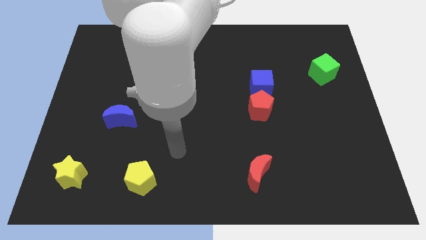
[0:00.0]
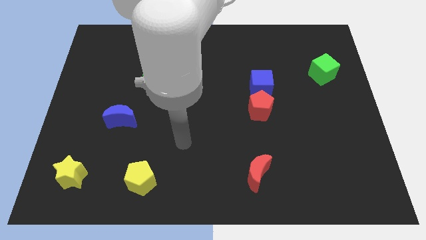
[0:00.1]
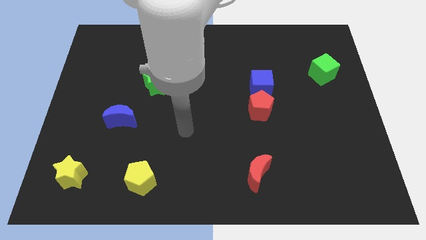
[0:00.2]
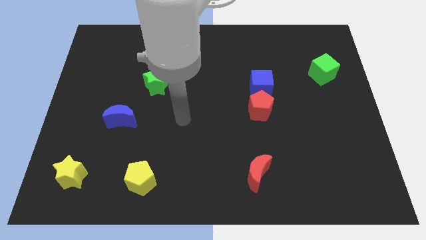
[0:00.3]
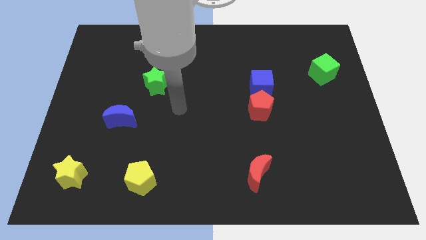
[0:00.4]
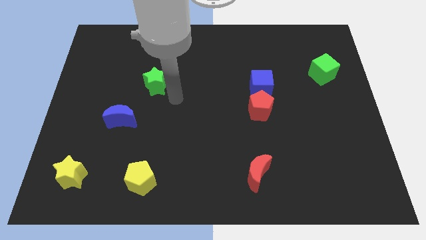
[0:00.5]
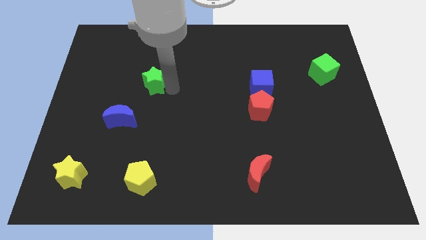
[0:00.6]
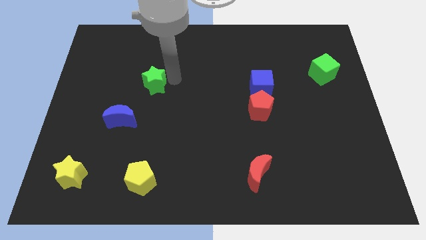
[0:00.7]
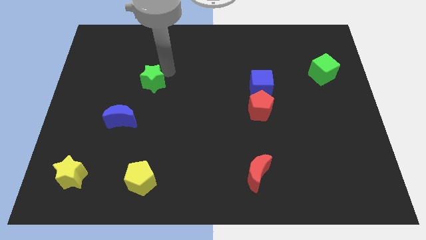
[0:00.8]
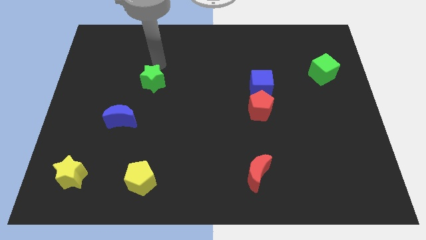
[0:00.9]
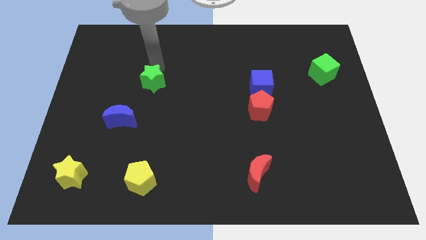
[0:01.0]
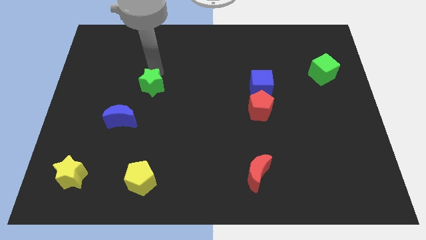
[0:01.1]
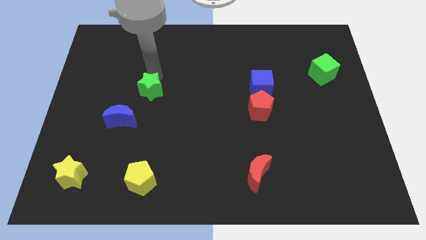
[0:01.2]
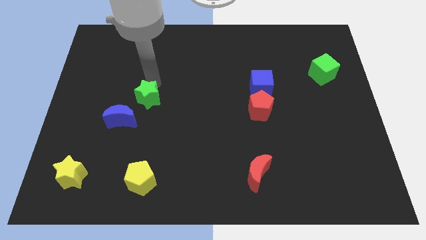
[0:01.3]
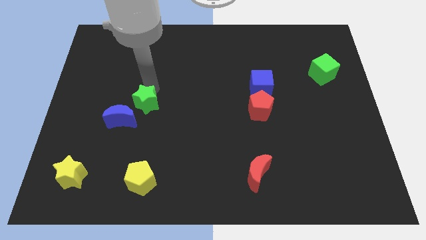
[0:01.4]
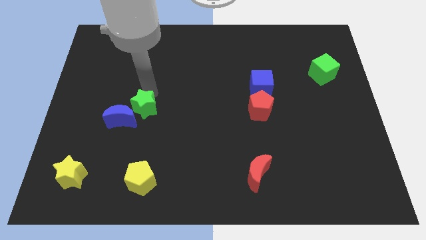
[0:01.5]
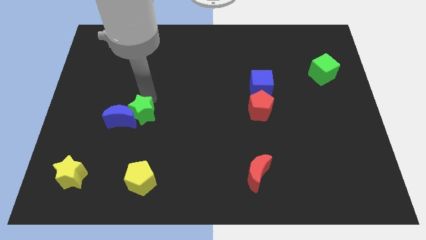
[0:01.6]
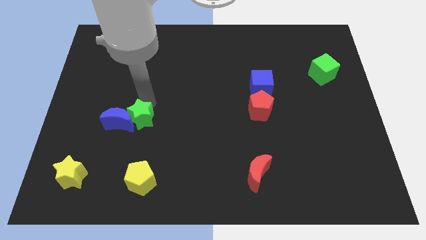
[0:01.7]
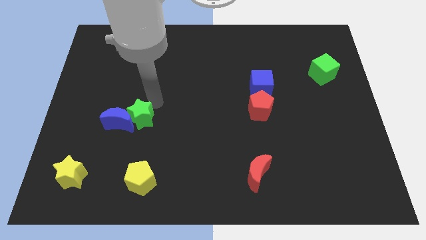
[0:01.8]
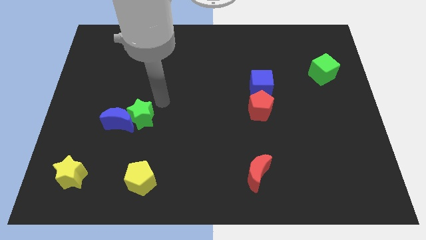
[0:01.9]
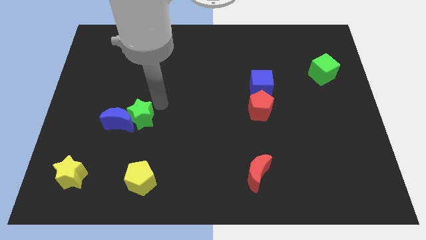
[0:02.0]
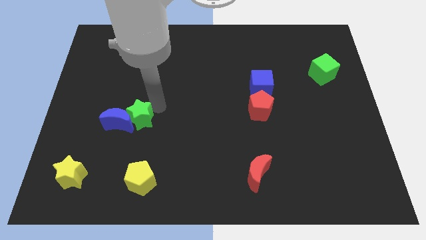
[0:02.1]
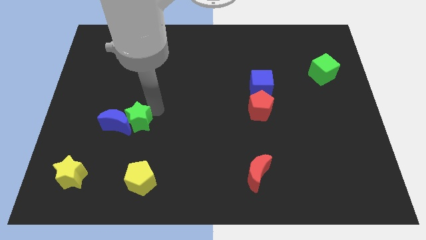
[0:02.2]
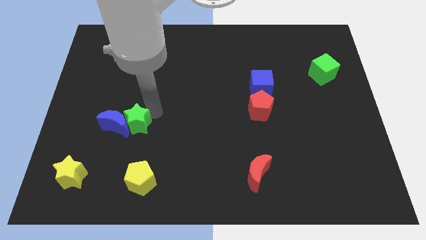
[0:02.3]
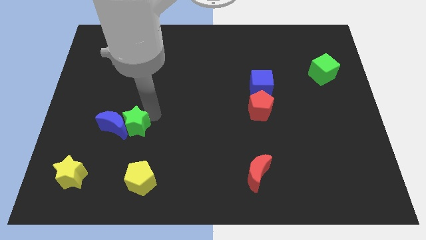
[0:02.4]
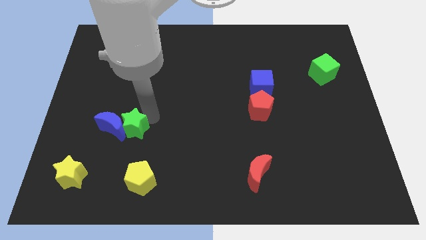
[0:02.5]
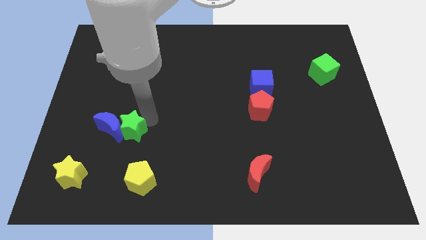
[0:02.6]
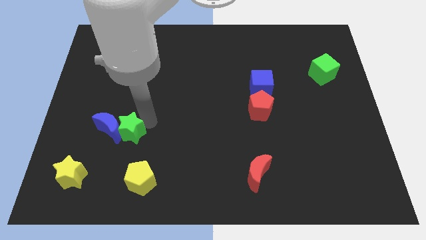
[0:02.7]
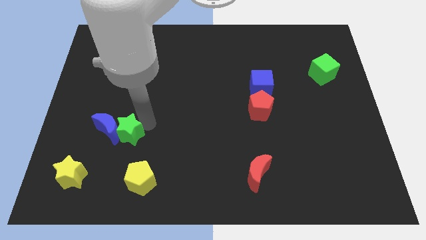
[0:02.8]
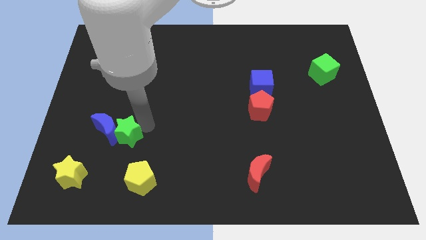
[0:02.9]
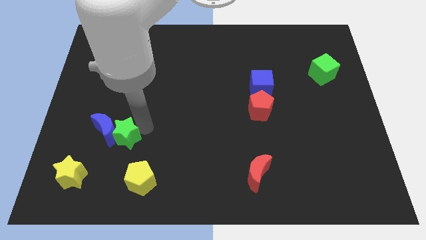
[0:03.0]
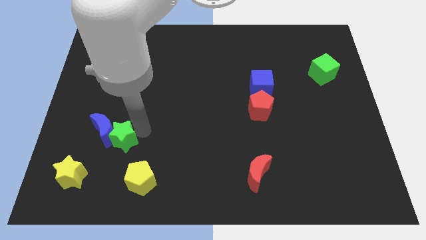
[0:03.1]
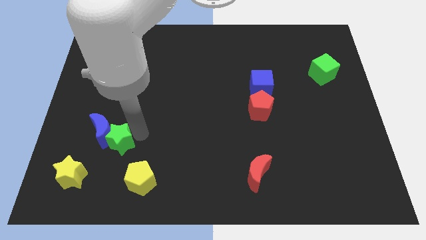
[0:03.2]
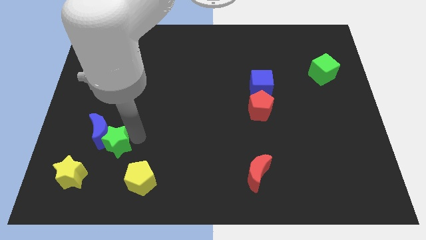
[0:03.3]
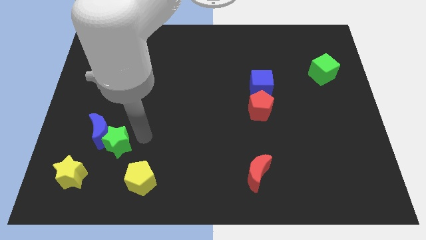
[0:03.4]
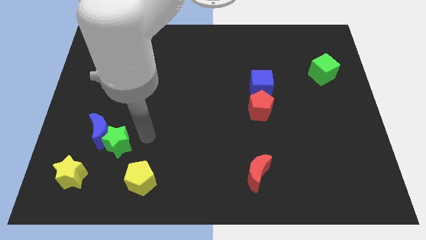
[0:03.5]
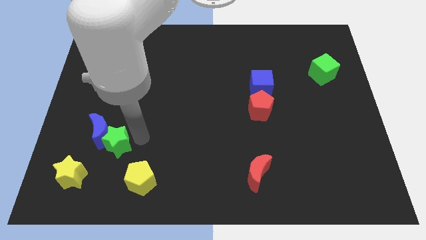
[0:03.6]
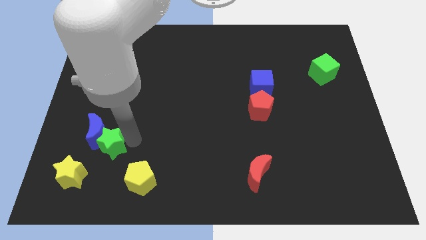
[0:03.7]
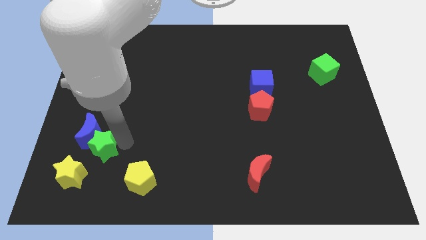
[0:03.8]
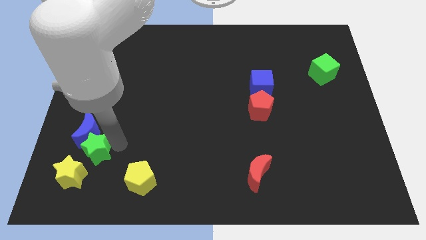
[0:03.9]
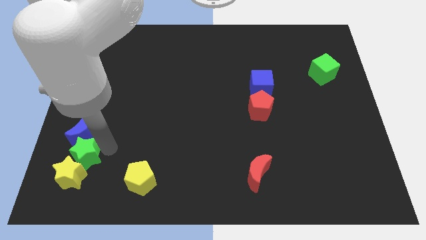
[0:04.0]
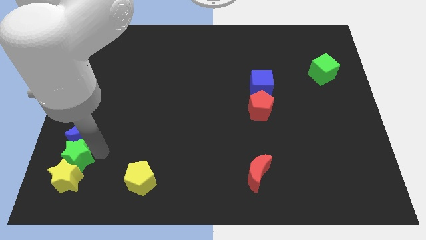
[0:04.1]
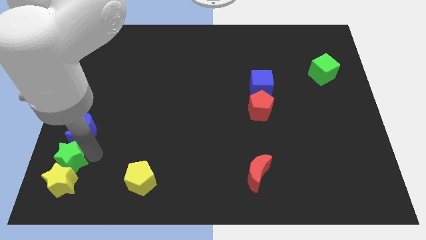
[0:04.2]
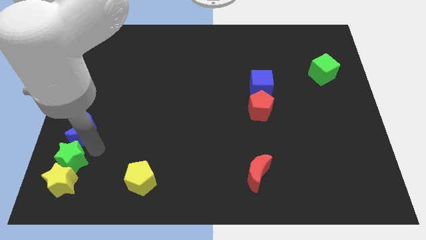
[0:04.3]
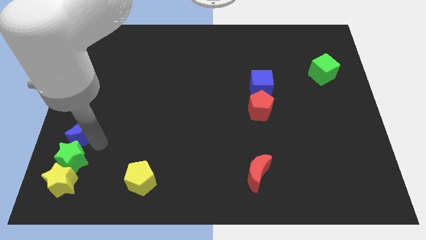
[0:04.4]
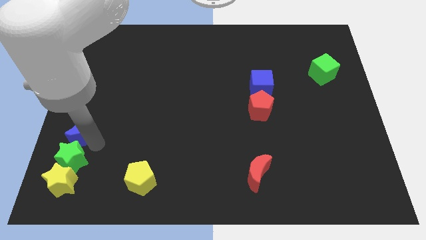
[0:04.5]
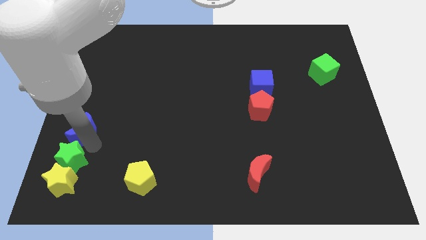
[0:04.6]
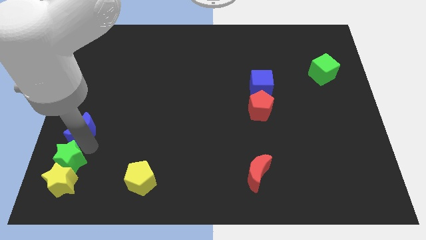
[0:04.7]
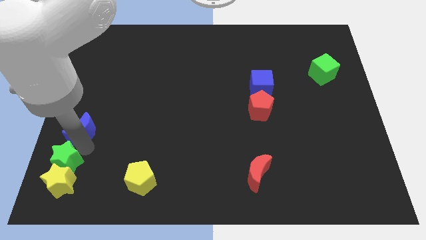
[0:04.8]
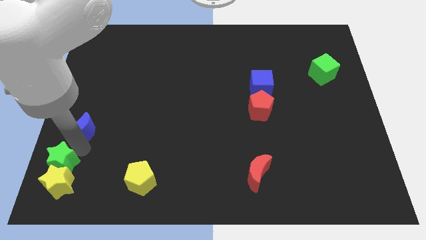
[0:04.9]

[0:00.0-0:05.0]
put the green star to the bottom left of the board

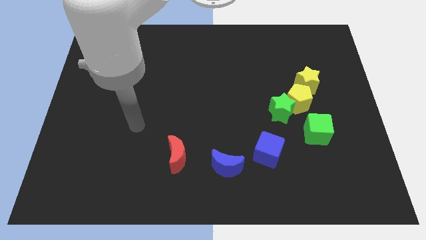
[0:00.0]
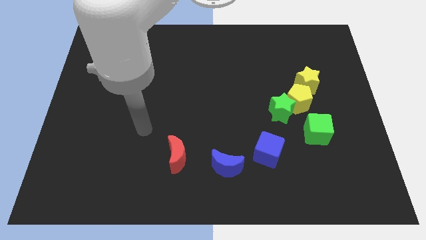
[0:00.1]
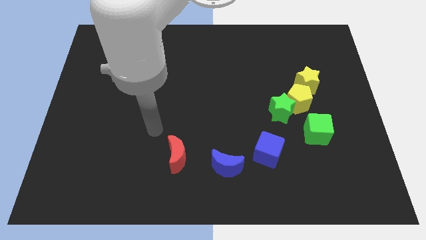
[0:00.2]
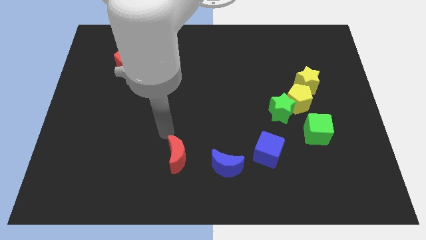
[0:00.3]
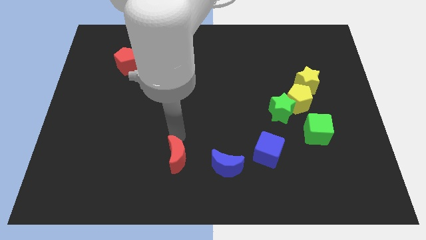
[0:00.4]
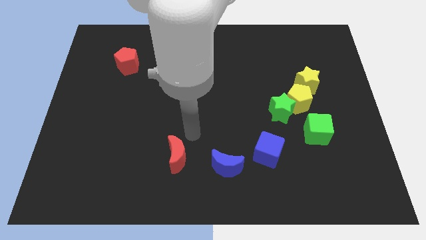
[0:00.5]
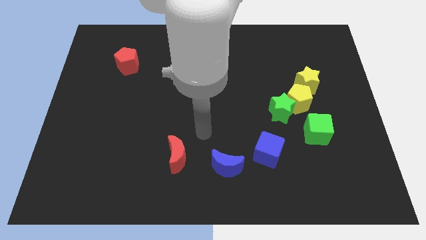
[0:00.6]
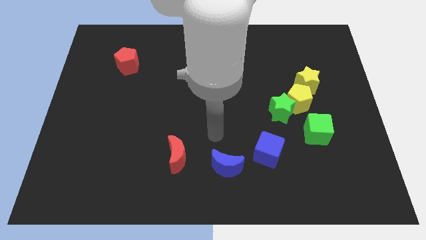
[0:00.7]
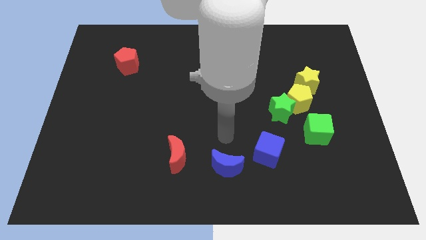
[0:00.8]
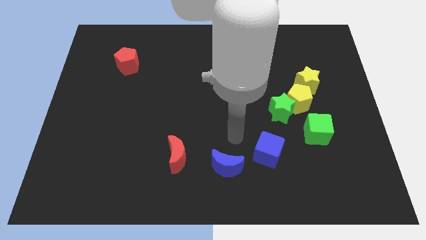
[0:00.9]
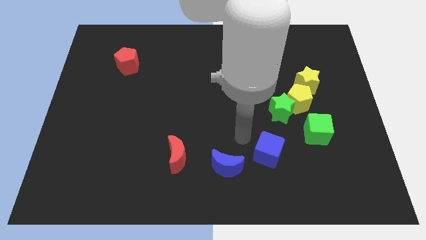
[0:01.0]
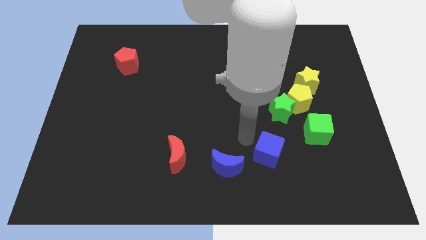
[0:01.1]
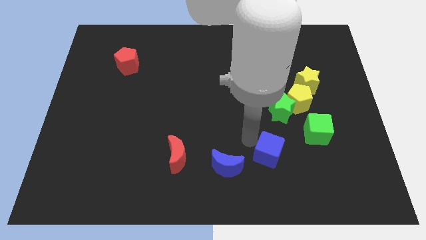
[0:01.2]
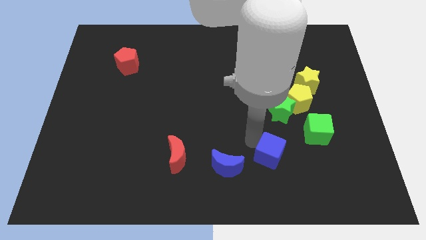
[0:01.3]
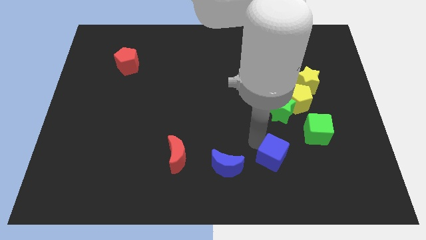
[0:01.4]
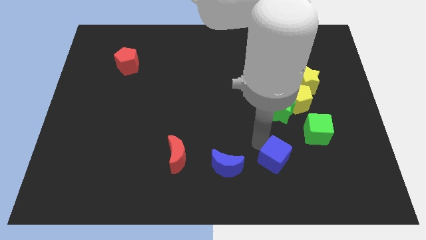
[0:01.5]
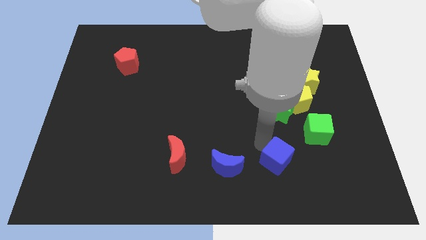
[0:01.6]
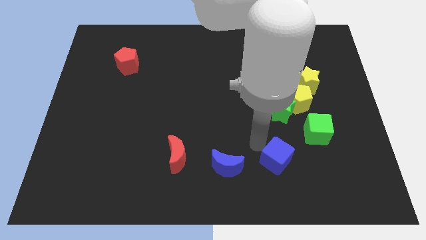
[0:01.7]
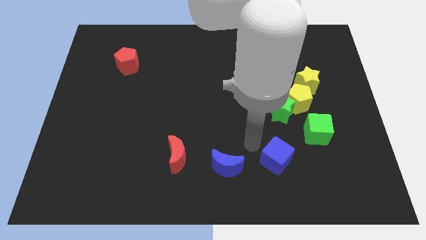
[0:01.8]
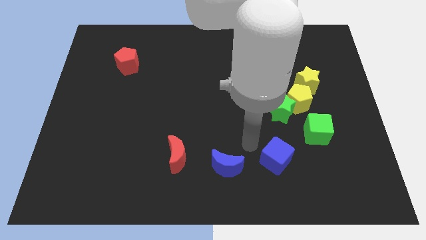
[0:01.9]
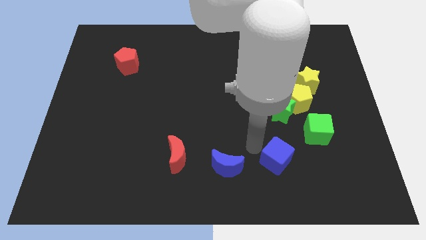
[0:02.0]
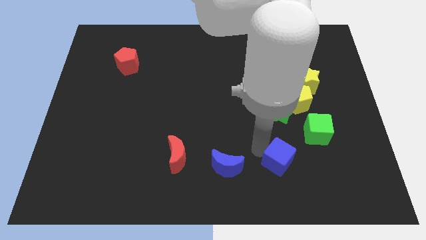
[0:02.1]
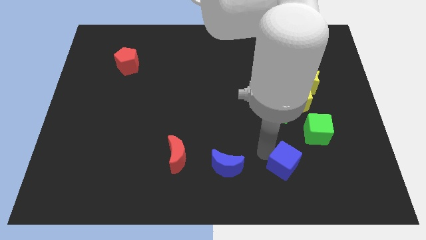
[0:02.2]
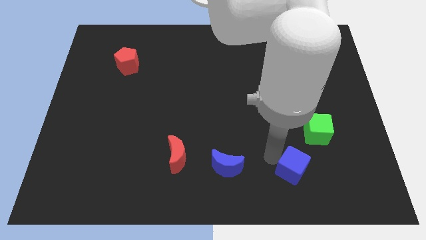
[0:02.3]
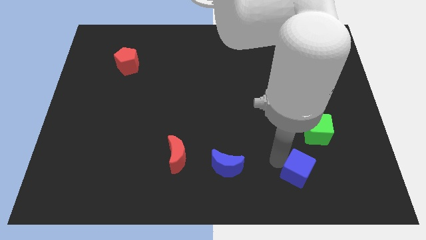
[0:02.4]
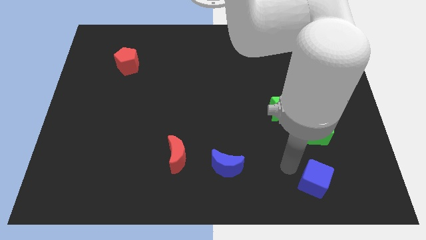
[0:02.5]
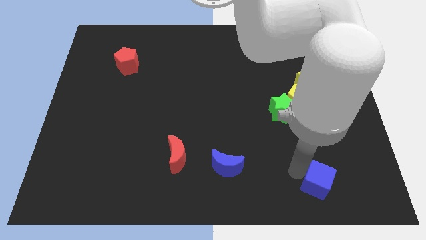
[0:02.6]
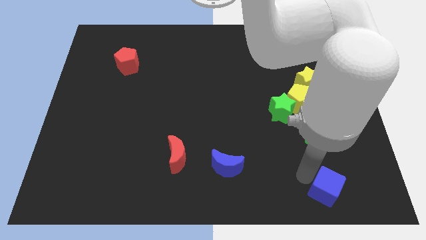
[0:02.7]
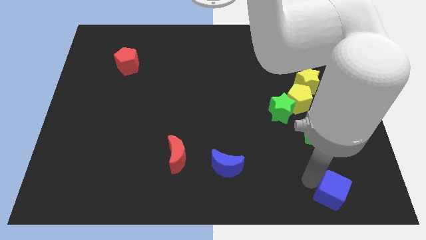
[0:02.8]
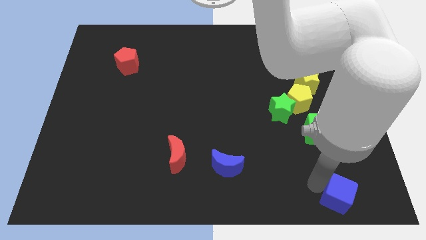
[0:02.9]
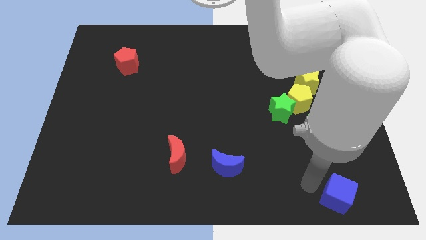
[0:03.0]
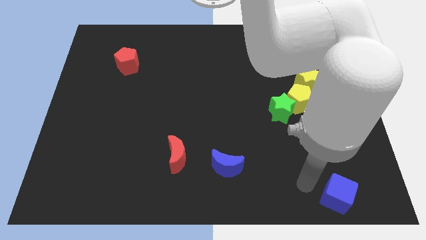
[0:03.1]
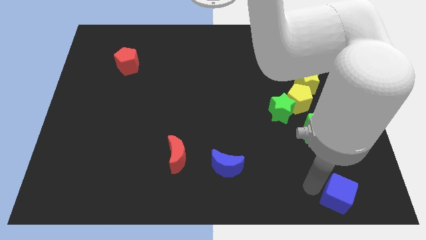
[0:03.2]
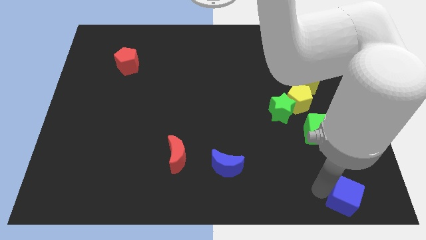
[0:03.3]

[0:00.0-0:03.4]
push the blue cube to the bottom right of the board
